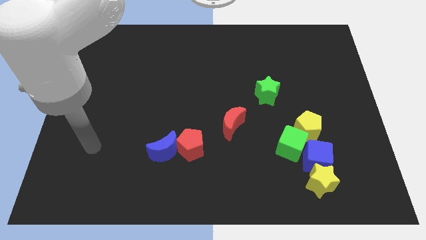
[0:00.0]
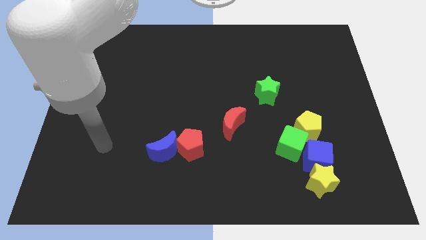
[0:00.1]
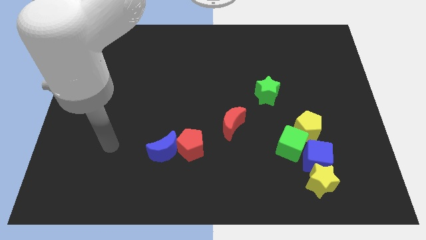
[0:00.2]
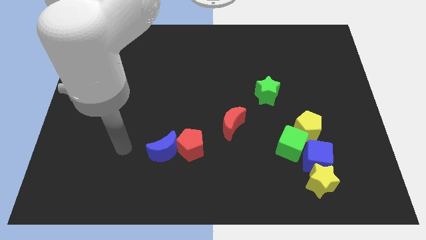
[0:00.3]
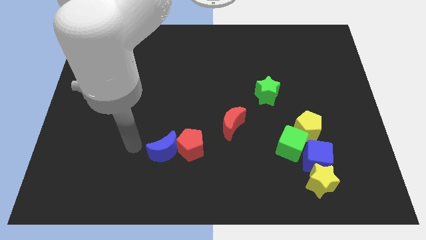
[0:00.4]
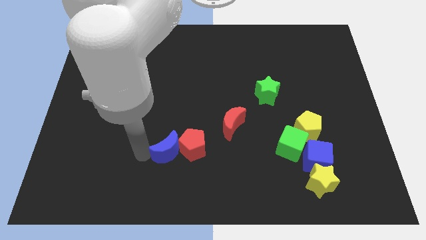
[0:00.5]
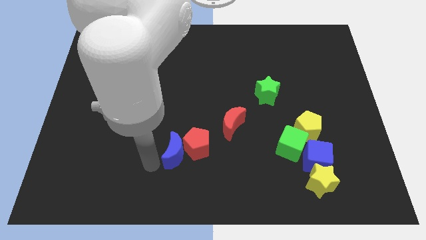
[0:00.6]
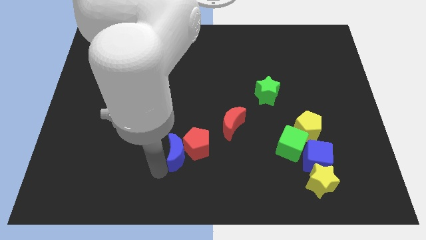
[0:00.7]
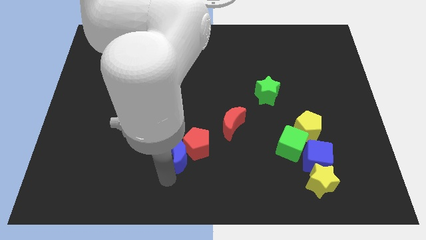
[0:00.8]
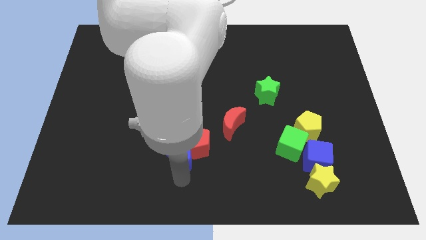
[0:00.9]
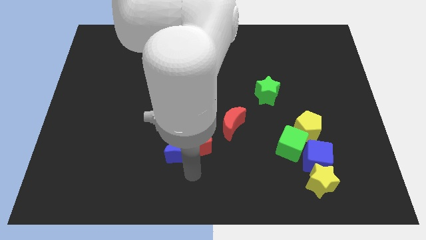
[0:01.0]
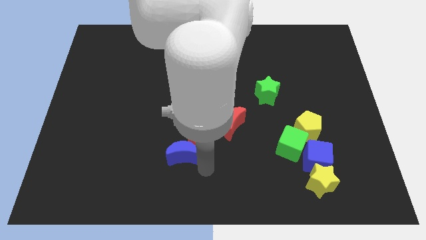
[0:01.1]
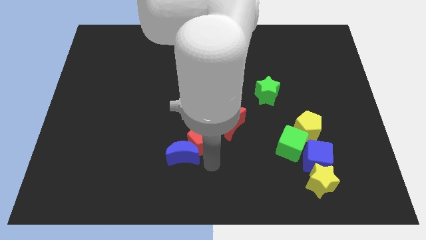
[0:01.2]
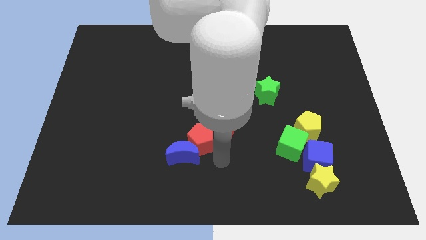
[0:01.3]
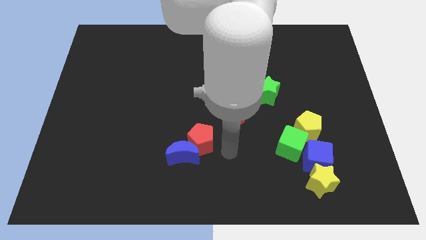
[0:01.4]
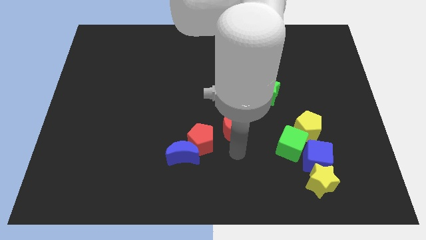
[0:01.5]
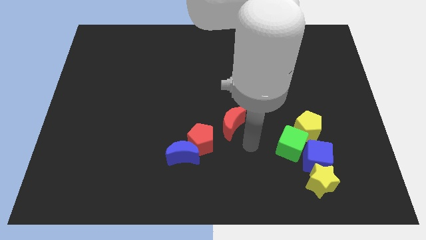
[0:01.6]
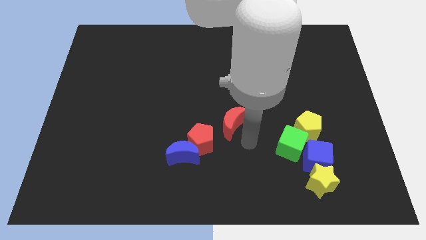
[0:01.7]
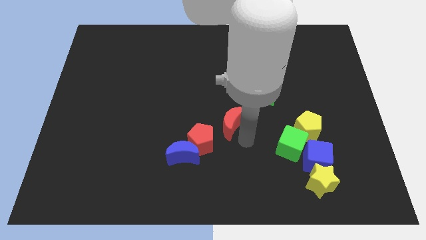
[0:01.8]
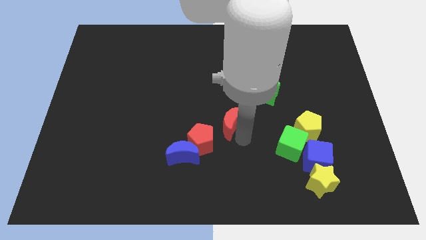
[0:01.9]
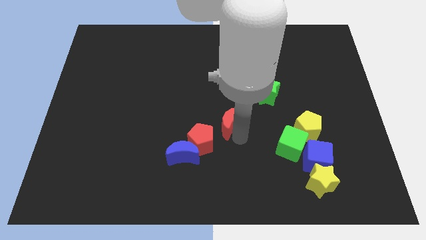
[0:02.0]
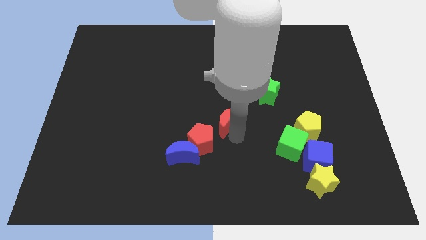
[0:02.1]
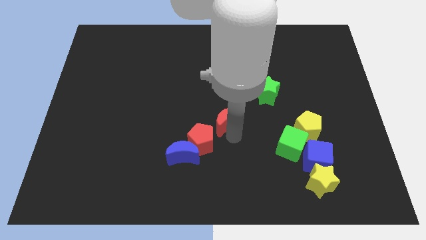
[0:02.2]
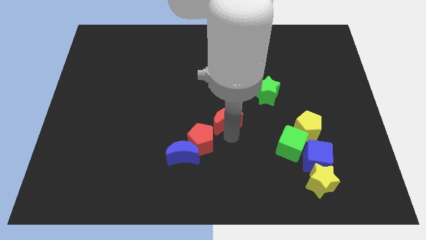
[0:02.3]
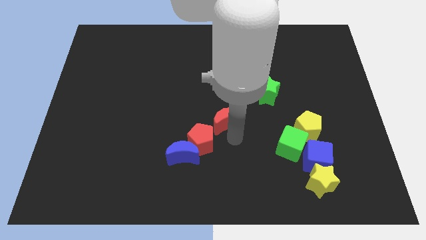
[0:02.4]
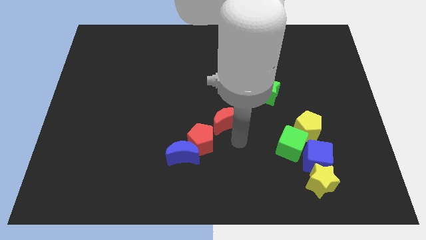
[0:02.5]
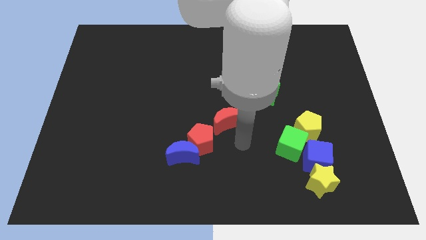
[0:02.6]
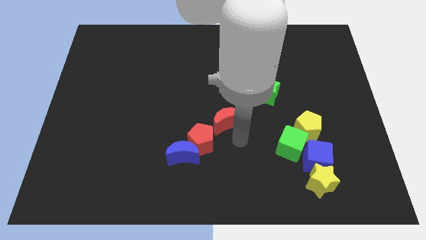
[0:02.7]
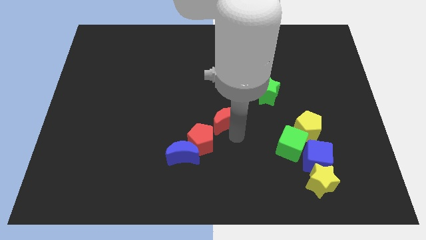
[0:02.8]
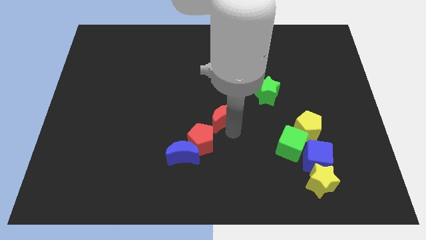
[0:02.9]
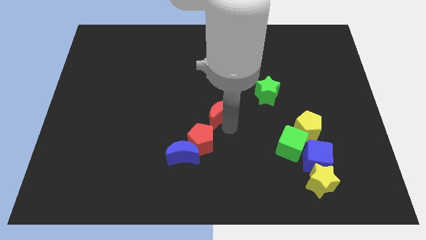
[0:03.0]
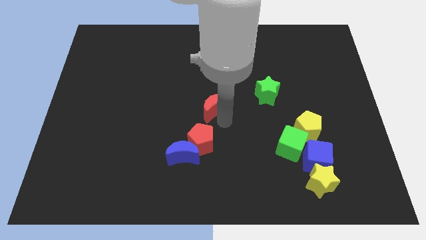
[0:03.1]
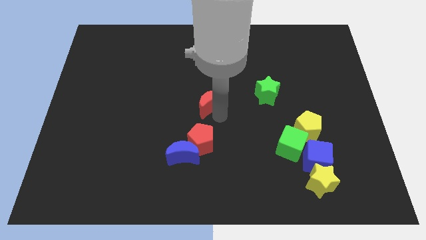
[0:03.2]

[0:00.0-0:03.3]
slightly slide the red moon upwards and then to the left

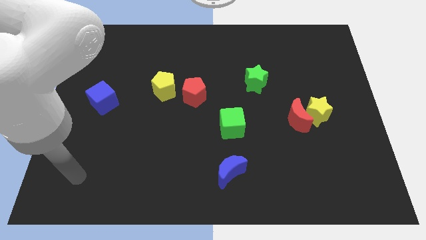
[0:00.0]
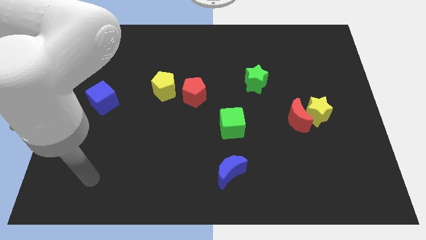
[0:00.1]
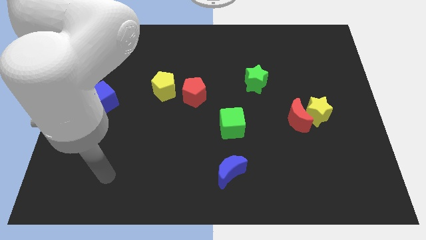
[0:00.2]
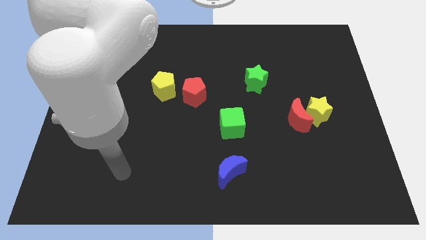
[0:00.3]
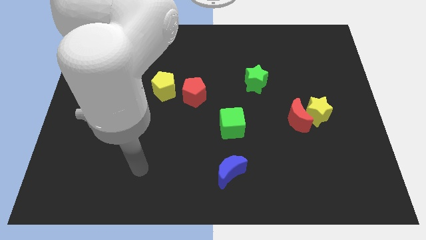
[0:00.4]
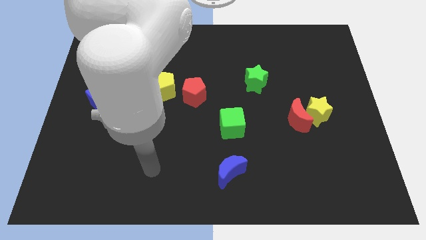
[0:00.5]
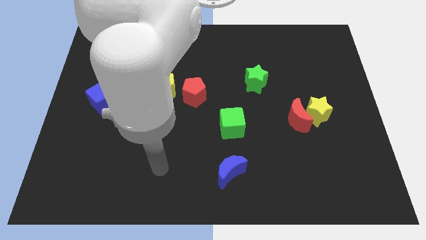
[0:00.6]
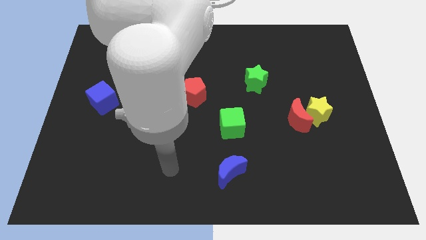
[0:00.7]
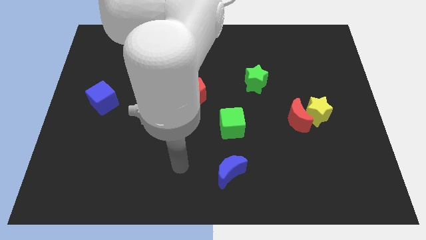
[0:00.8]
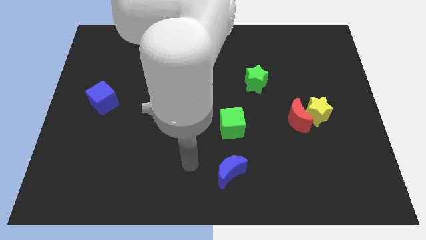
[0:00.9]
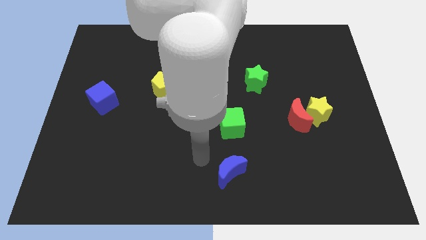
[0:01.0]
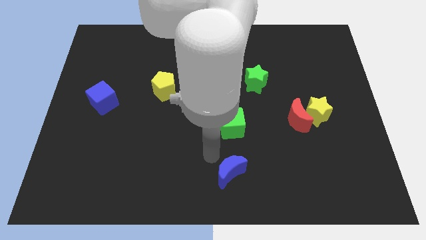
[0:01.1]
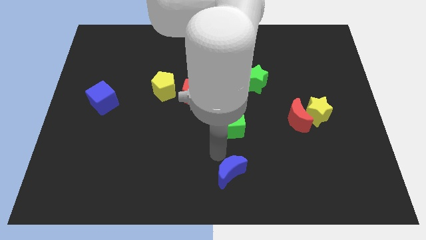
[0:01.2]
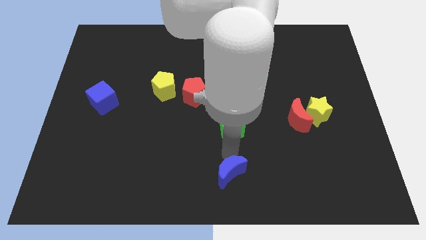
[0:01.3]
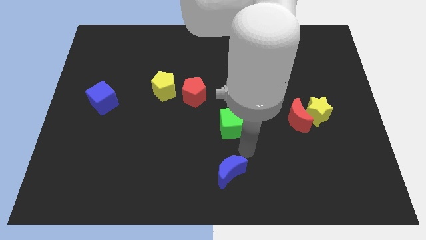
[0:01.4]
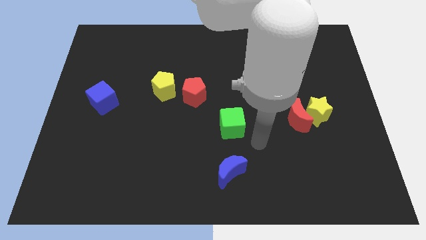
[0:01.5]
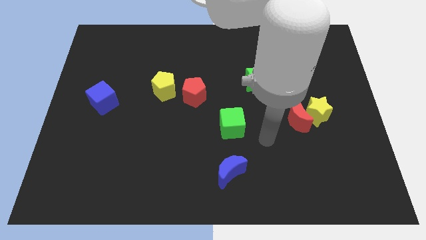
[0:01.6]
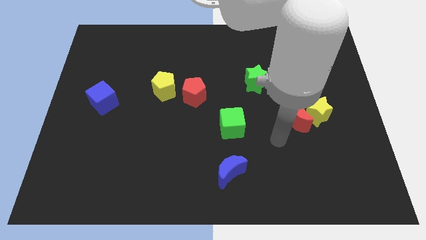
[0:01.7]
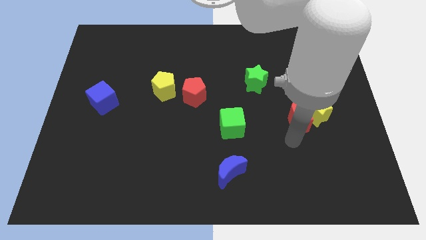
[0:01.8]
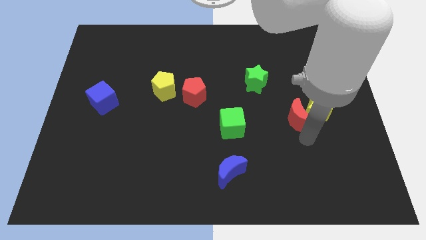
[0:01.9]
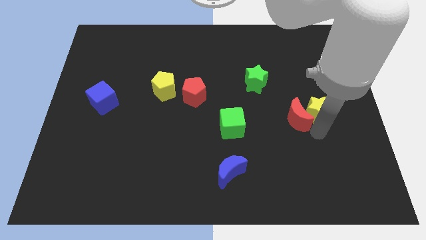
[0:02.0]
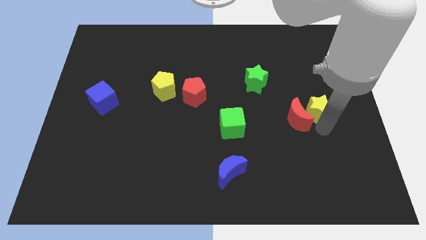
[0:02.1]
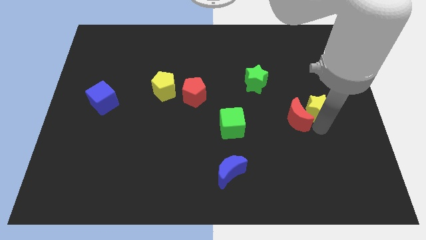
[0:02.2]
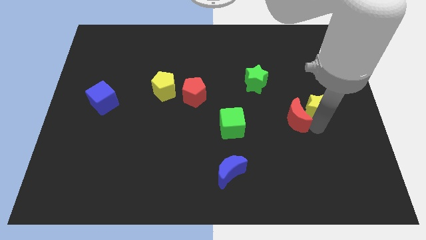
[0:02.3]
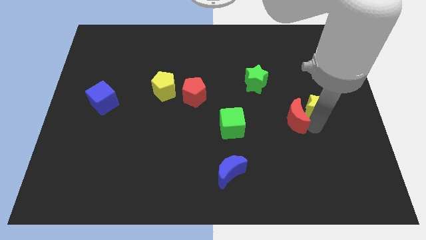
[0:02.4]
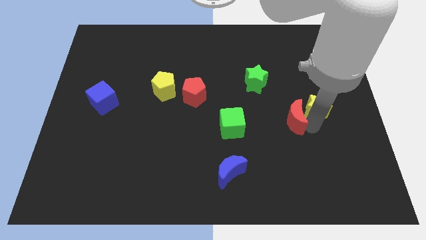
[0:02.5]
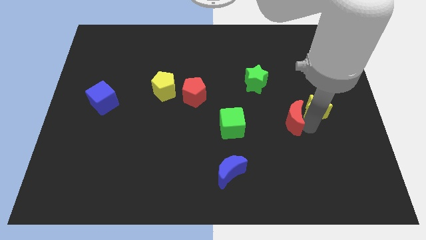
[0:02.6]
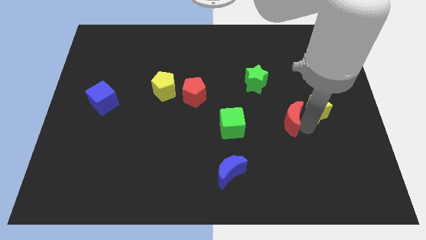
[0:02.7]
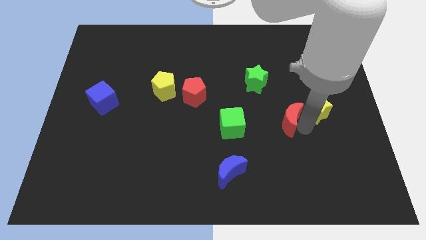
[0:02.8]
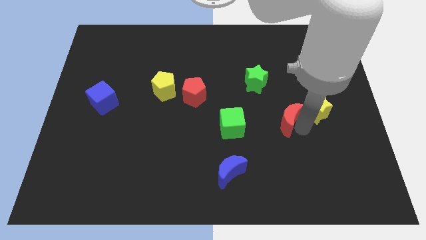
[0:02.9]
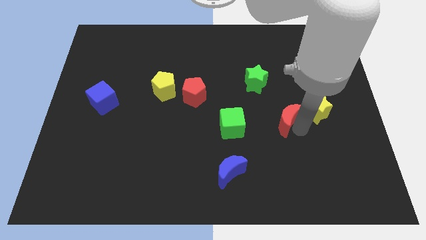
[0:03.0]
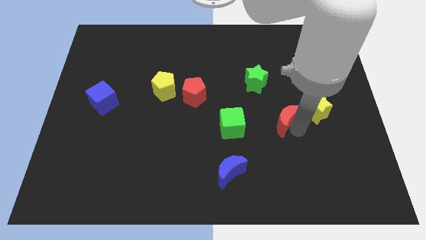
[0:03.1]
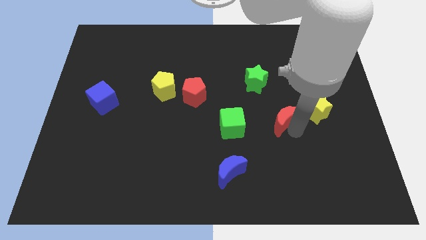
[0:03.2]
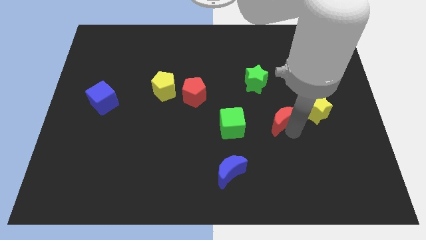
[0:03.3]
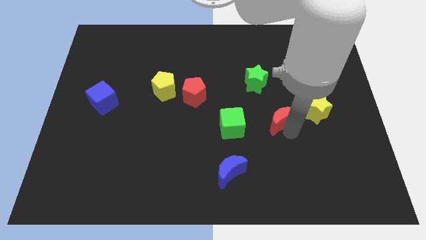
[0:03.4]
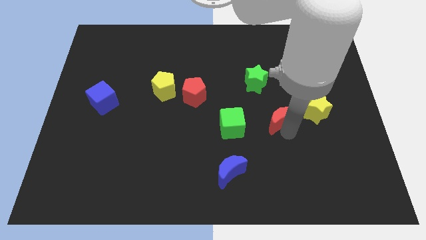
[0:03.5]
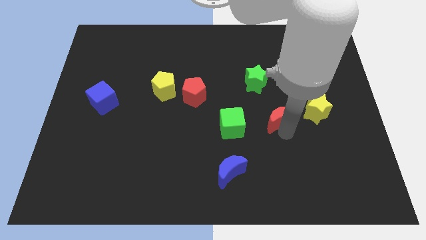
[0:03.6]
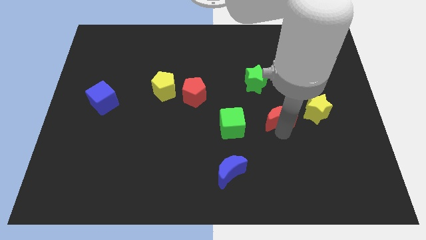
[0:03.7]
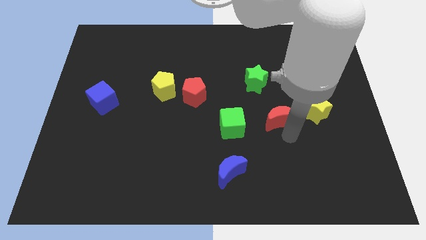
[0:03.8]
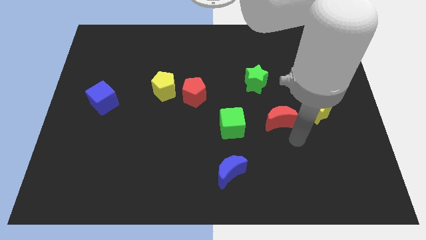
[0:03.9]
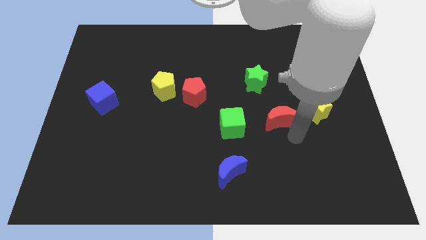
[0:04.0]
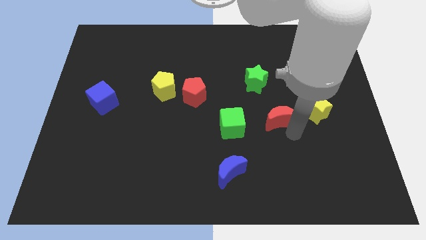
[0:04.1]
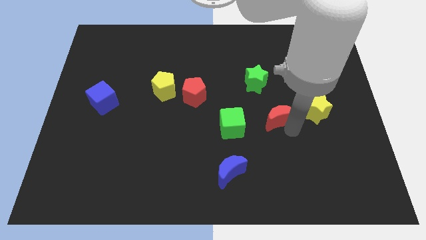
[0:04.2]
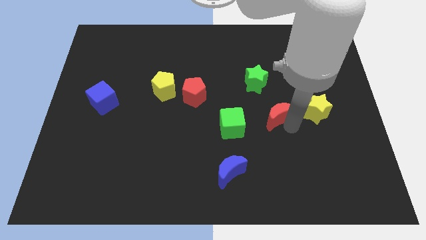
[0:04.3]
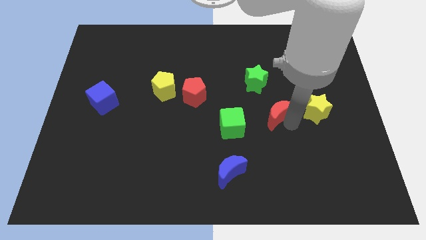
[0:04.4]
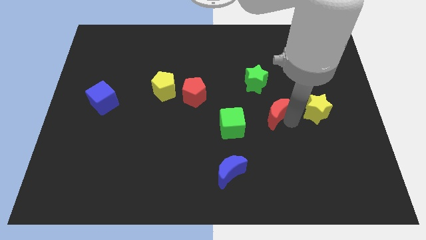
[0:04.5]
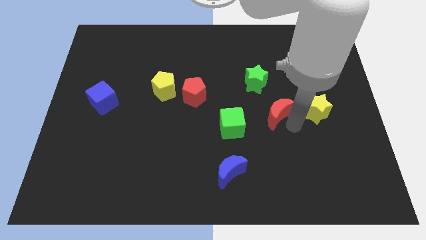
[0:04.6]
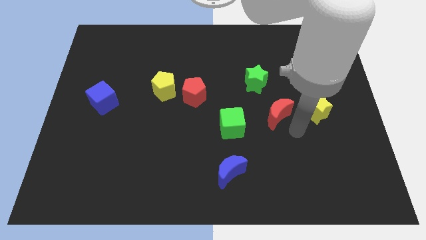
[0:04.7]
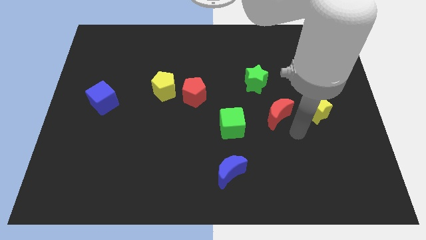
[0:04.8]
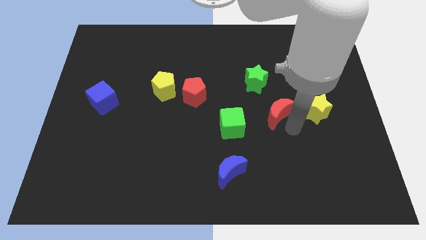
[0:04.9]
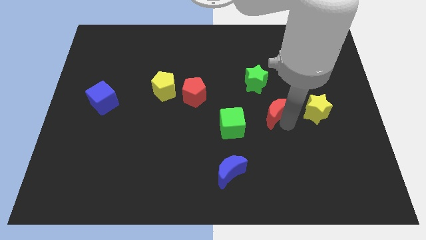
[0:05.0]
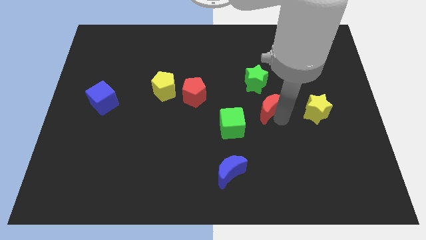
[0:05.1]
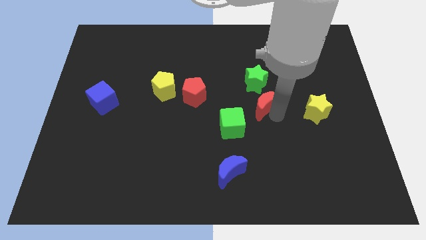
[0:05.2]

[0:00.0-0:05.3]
slightly move the red moon diagonally upwards and to the left
